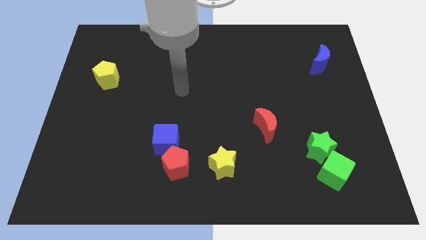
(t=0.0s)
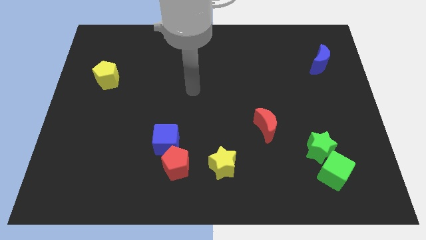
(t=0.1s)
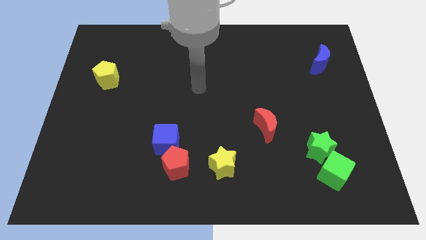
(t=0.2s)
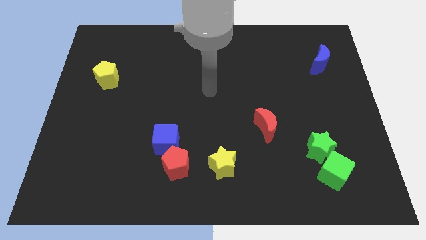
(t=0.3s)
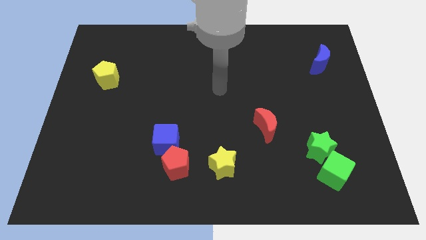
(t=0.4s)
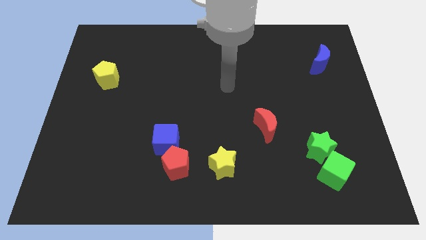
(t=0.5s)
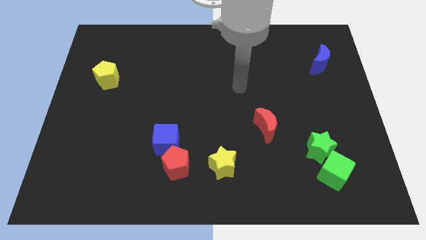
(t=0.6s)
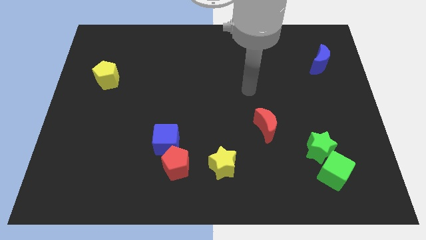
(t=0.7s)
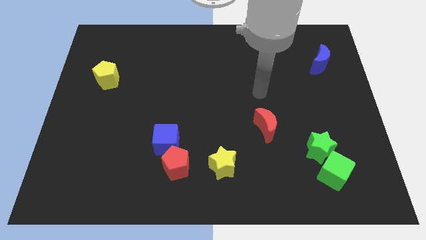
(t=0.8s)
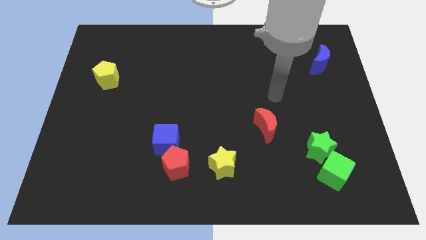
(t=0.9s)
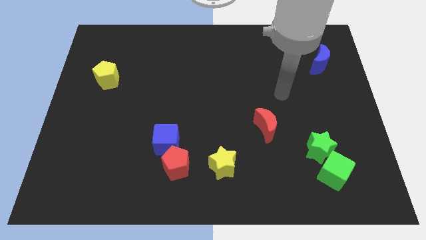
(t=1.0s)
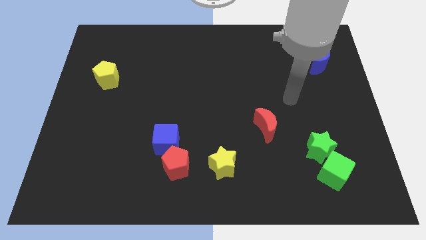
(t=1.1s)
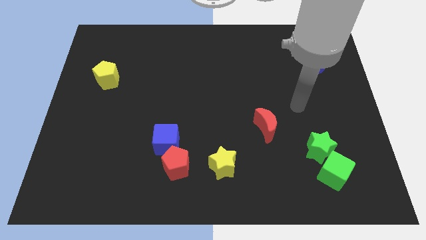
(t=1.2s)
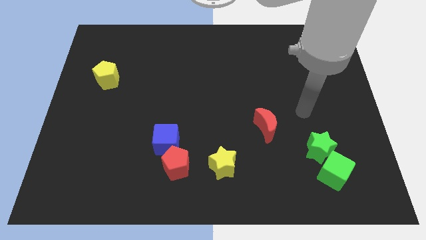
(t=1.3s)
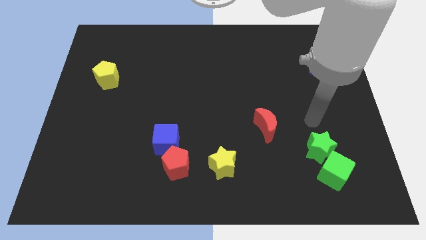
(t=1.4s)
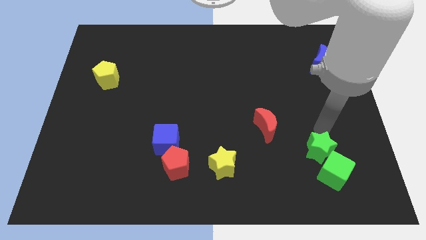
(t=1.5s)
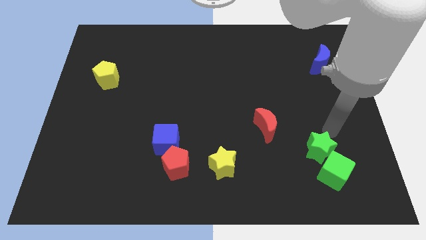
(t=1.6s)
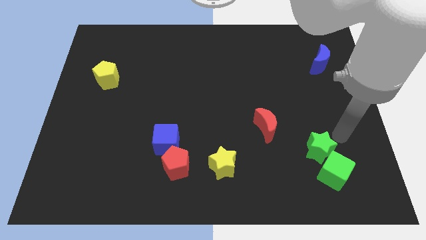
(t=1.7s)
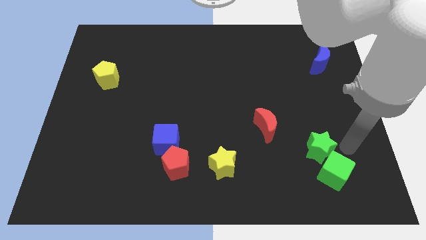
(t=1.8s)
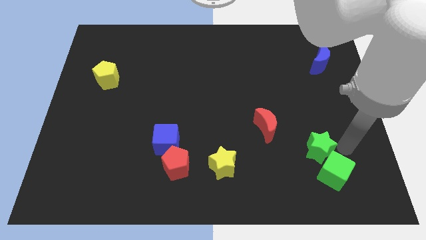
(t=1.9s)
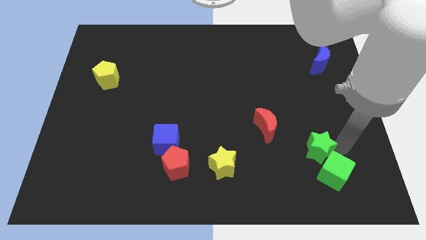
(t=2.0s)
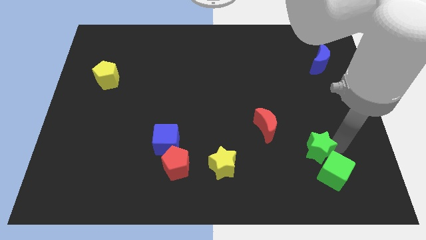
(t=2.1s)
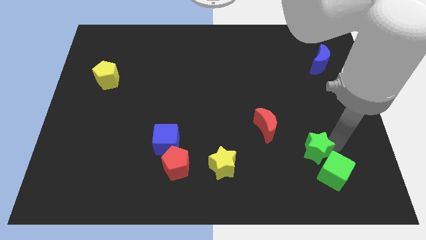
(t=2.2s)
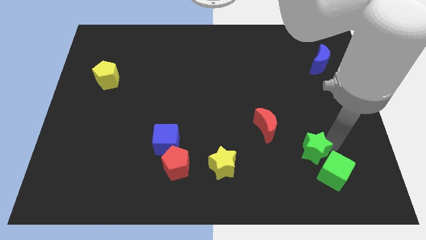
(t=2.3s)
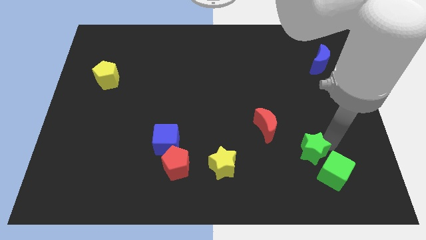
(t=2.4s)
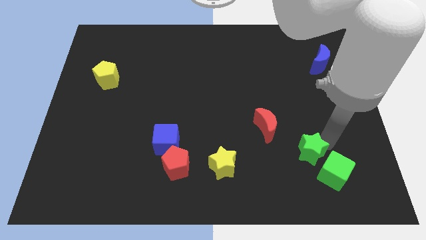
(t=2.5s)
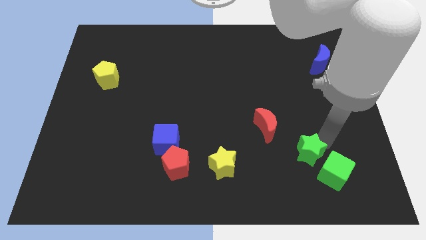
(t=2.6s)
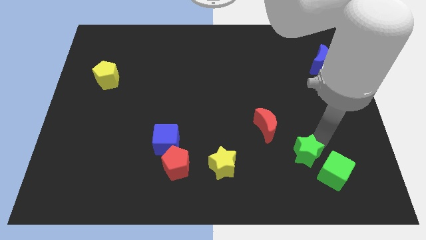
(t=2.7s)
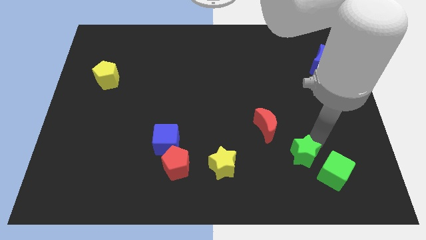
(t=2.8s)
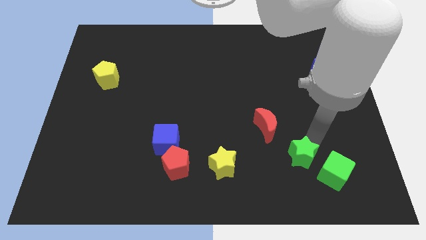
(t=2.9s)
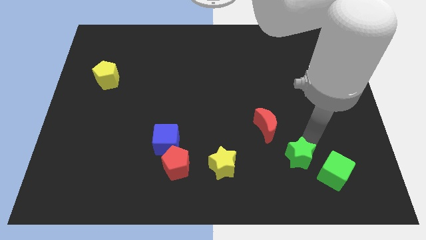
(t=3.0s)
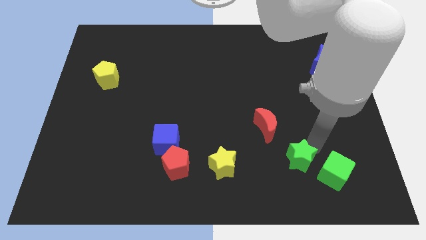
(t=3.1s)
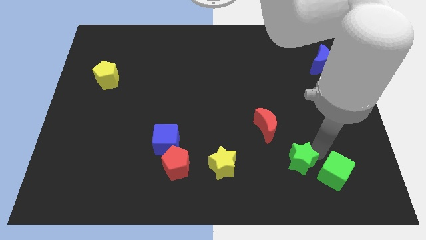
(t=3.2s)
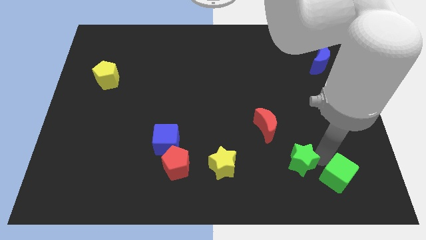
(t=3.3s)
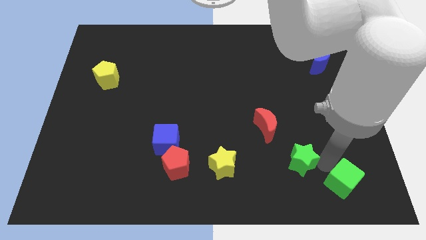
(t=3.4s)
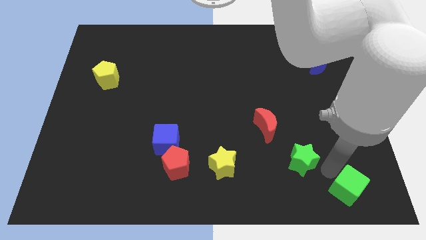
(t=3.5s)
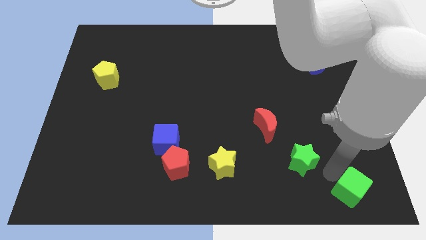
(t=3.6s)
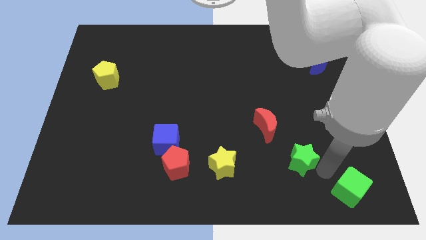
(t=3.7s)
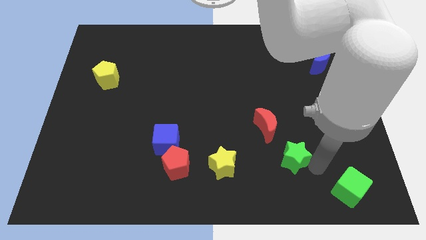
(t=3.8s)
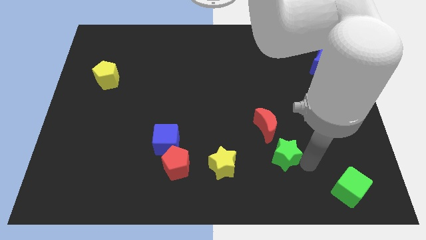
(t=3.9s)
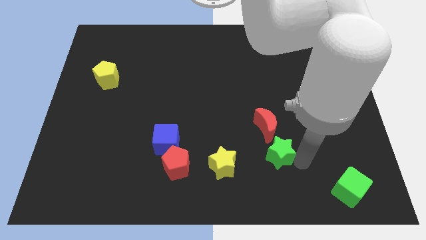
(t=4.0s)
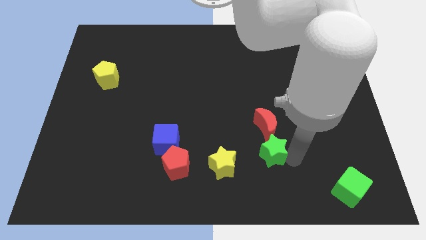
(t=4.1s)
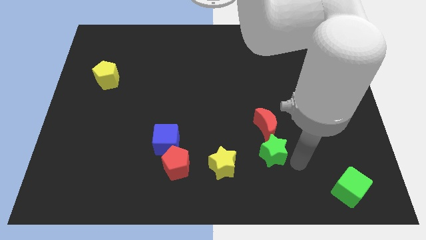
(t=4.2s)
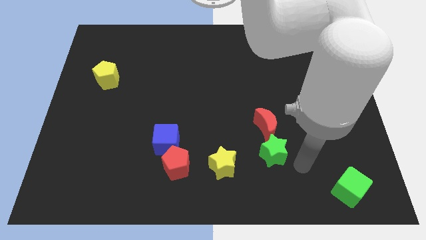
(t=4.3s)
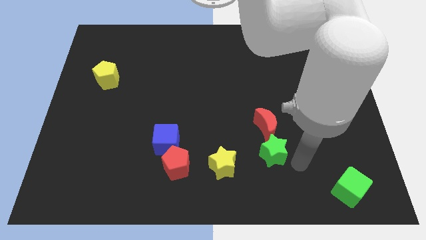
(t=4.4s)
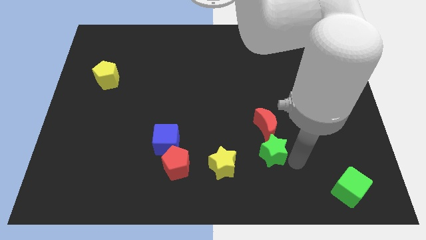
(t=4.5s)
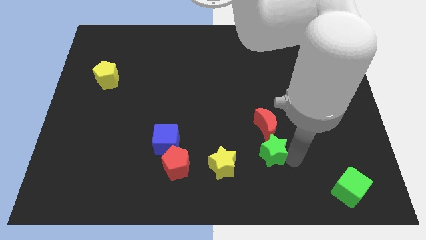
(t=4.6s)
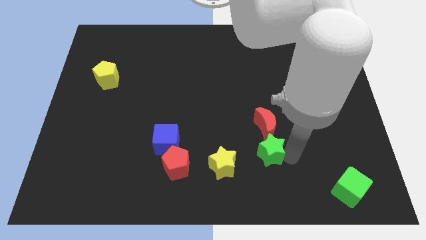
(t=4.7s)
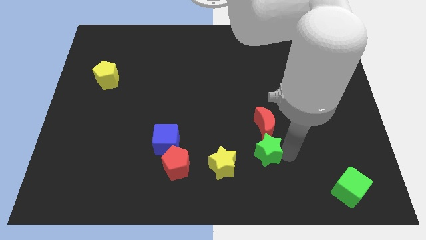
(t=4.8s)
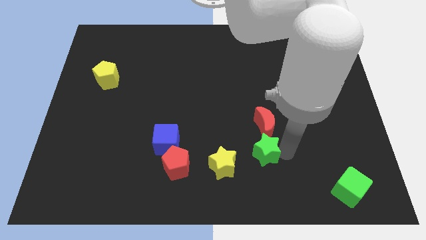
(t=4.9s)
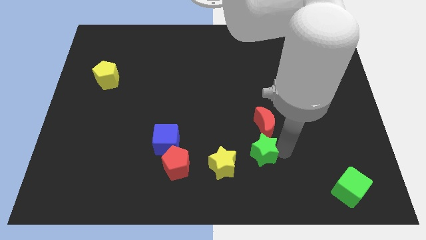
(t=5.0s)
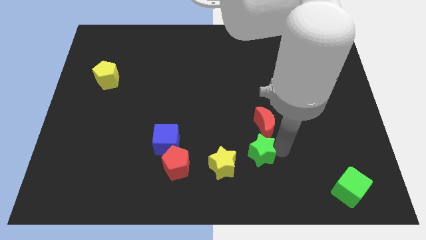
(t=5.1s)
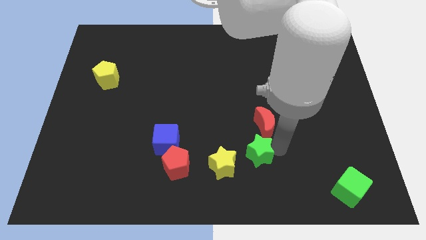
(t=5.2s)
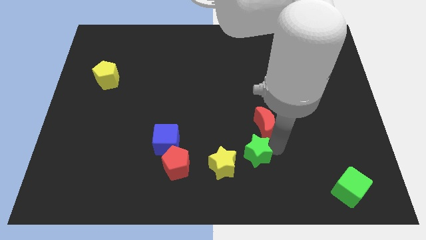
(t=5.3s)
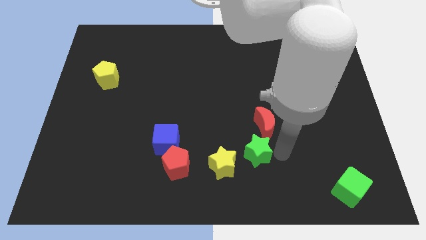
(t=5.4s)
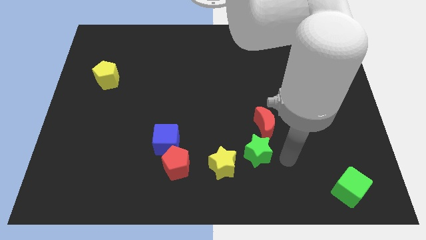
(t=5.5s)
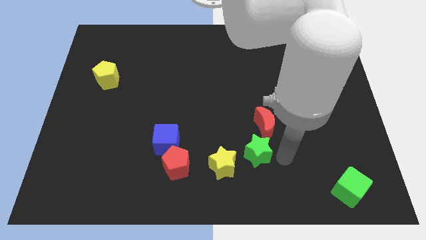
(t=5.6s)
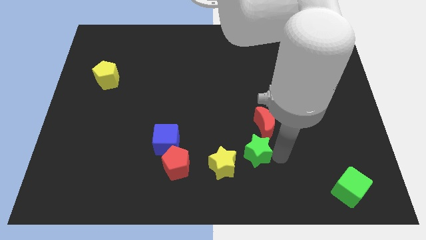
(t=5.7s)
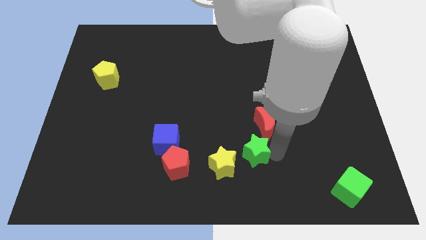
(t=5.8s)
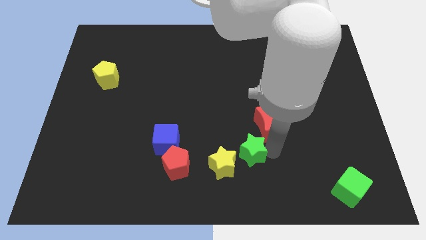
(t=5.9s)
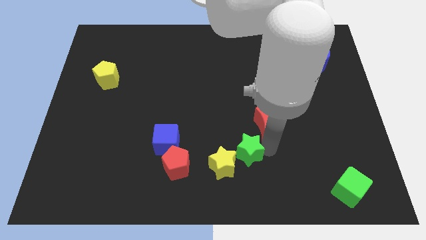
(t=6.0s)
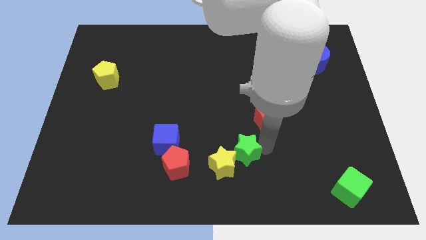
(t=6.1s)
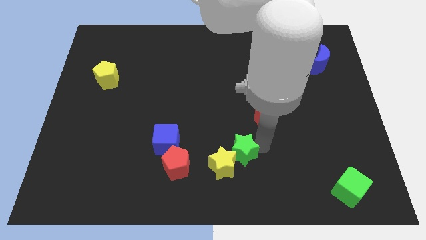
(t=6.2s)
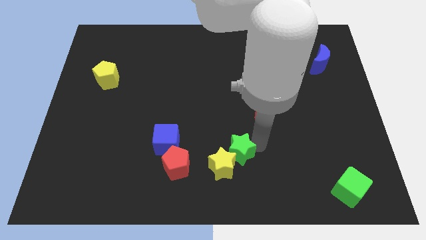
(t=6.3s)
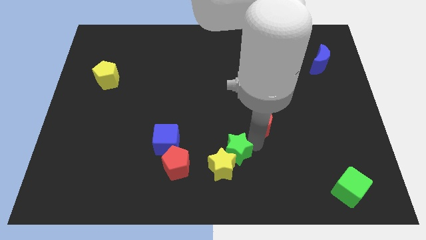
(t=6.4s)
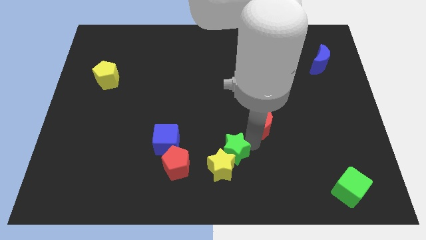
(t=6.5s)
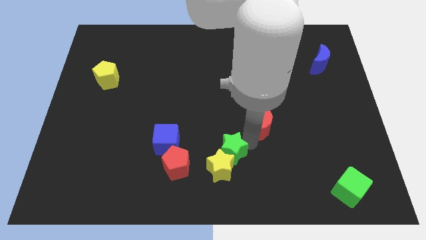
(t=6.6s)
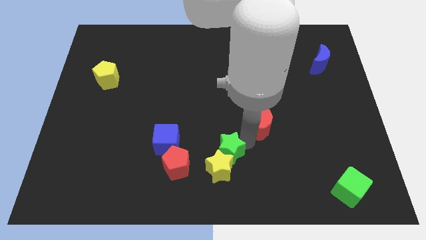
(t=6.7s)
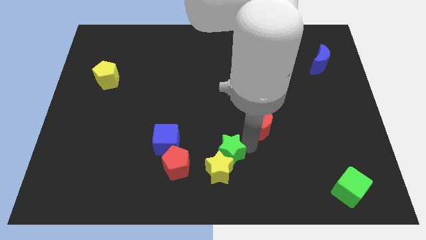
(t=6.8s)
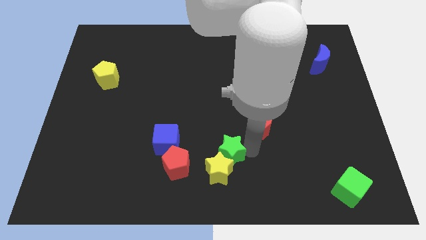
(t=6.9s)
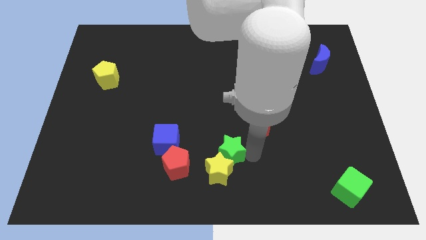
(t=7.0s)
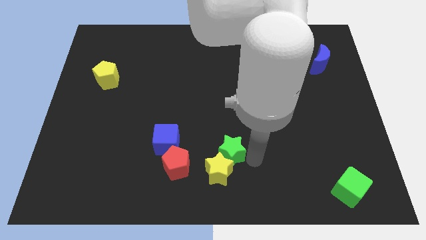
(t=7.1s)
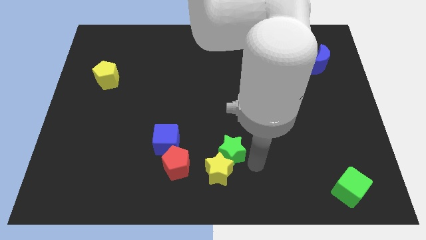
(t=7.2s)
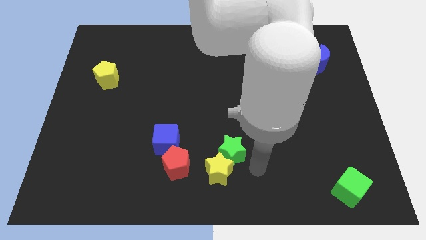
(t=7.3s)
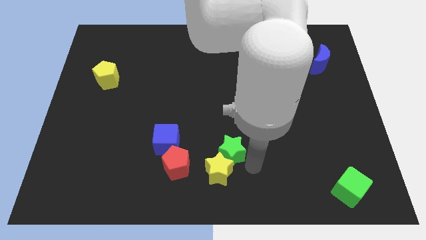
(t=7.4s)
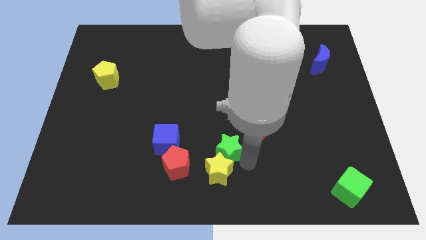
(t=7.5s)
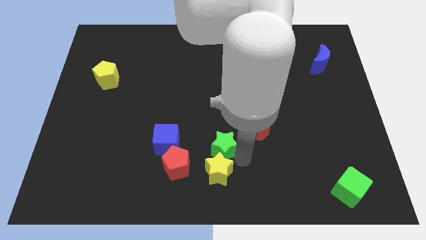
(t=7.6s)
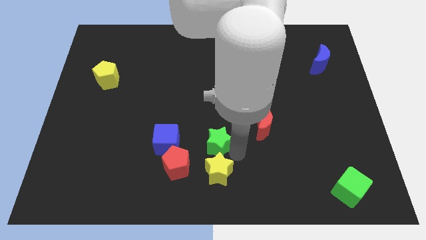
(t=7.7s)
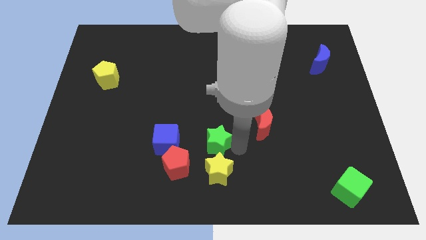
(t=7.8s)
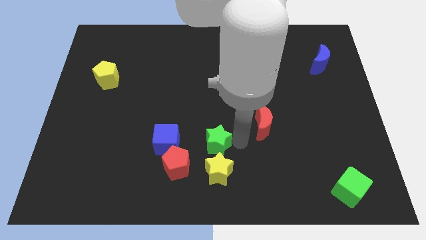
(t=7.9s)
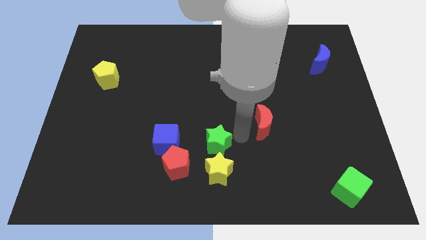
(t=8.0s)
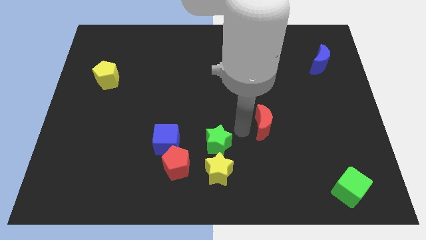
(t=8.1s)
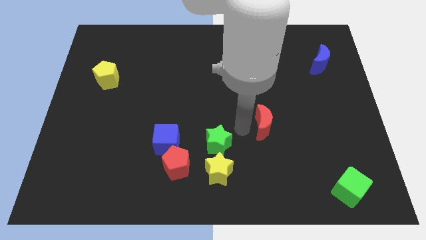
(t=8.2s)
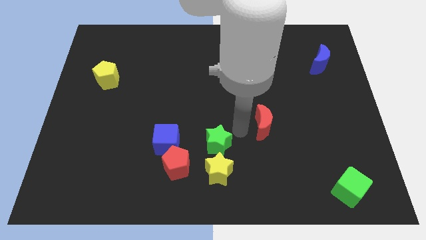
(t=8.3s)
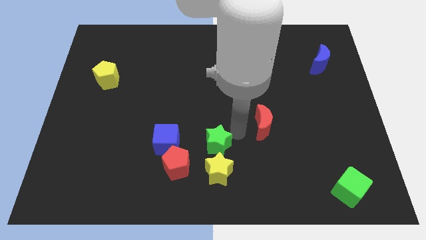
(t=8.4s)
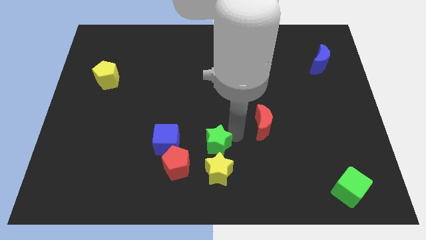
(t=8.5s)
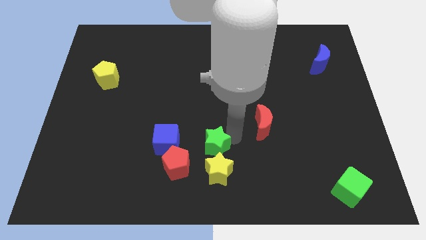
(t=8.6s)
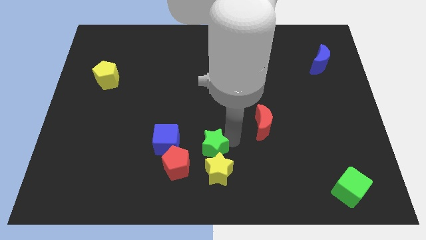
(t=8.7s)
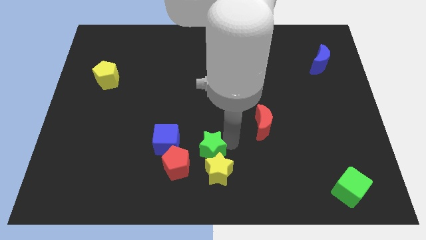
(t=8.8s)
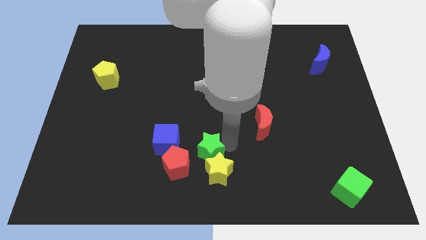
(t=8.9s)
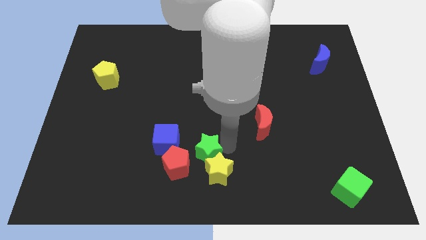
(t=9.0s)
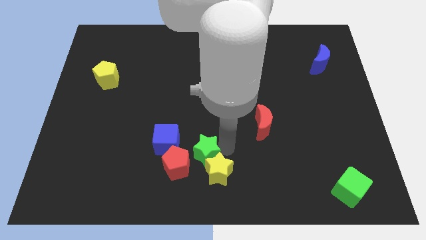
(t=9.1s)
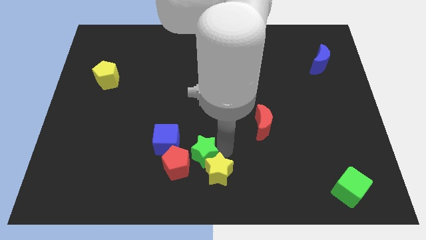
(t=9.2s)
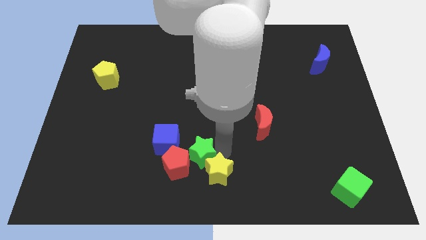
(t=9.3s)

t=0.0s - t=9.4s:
put the green star close to the red pentagon
